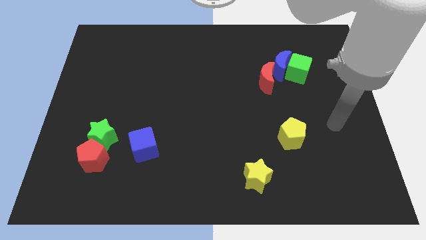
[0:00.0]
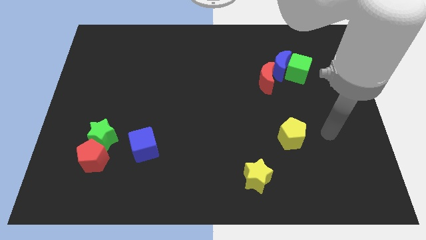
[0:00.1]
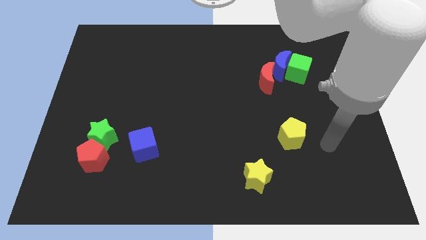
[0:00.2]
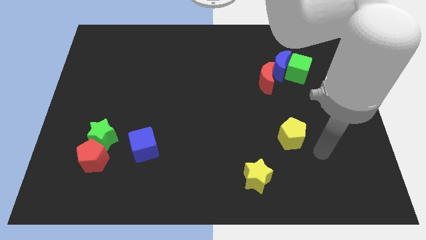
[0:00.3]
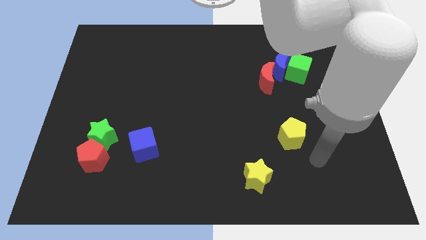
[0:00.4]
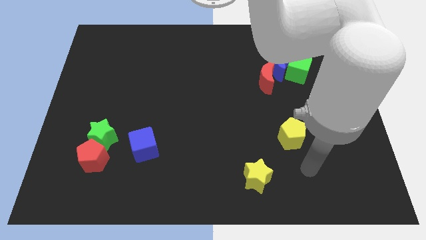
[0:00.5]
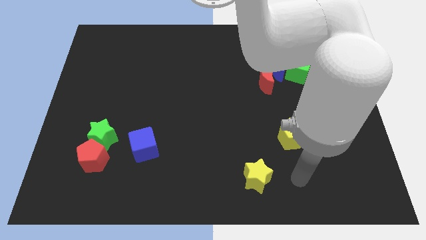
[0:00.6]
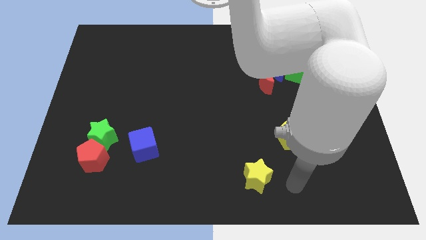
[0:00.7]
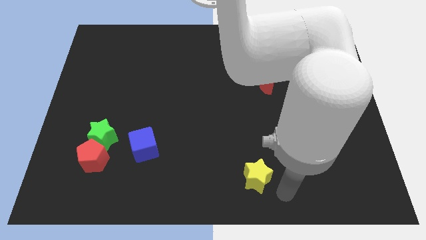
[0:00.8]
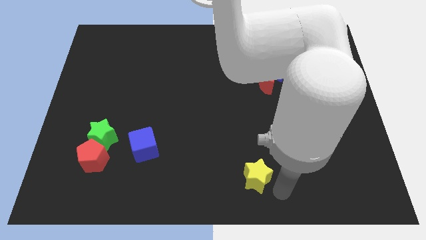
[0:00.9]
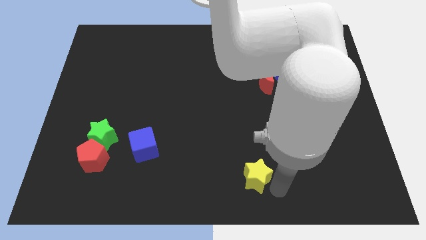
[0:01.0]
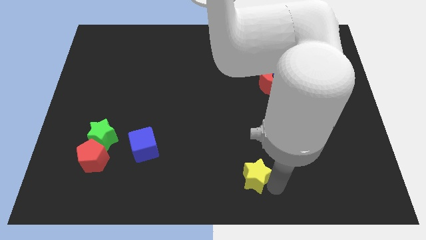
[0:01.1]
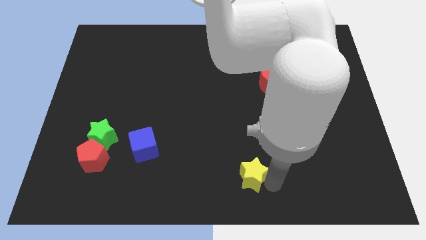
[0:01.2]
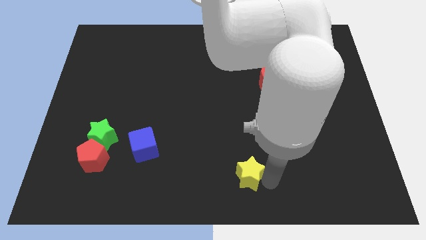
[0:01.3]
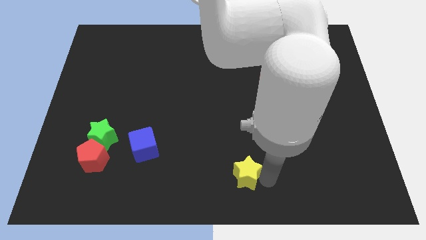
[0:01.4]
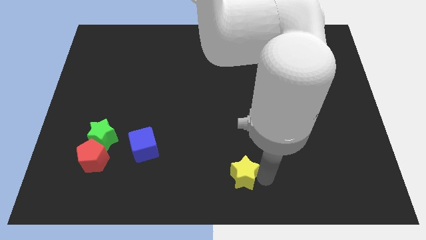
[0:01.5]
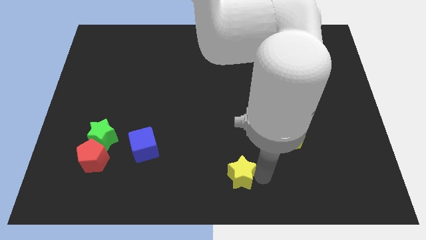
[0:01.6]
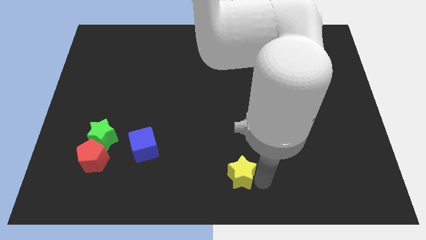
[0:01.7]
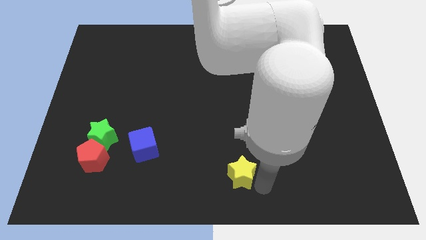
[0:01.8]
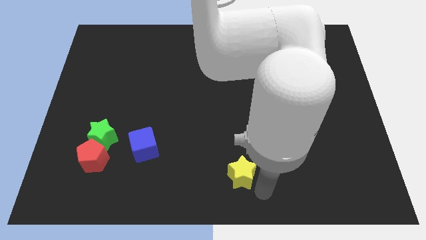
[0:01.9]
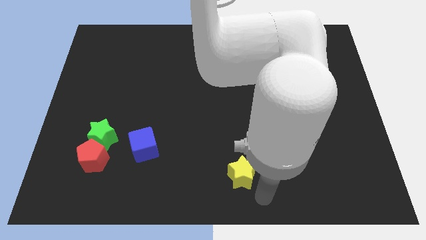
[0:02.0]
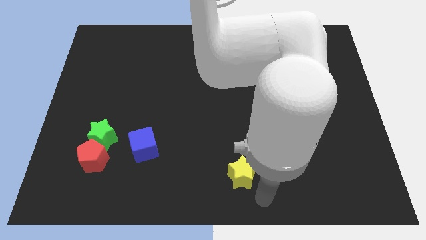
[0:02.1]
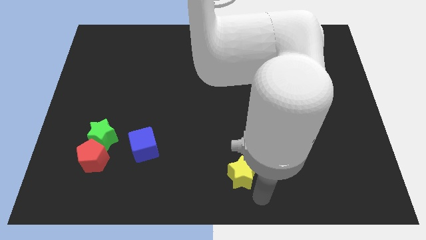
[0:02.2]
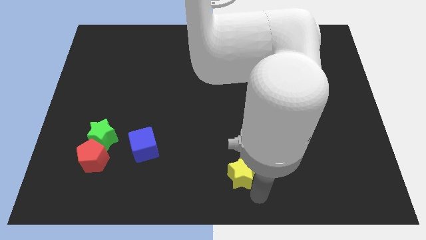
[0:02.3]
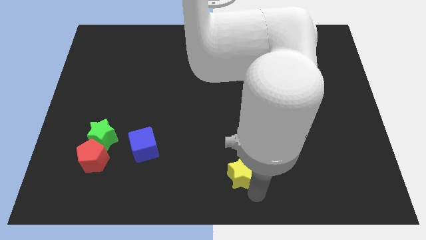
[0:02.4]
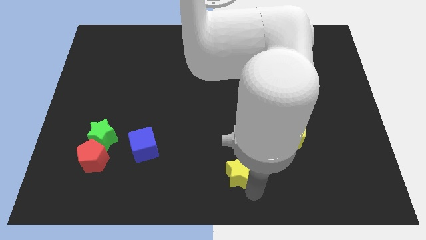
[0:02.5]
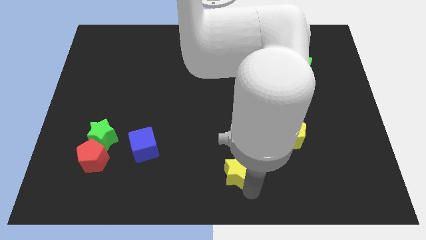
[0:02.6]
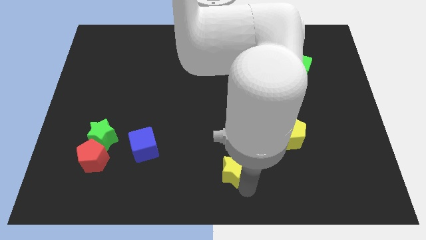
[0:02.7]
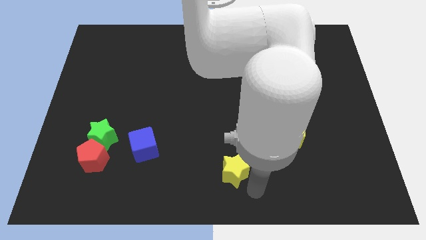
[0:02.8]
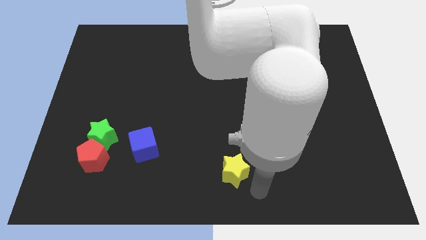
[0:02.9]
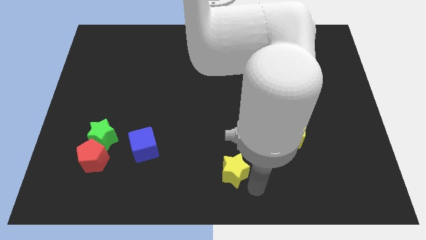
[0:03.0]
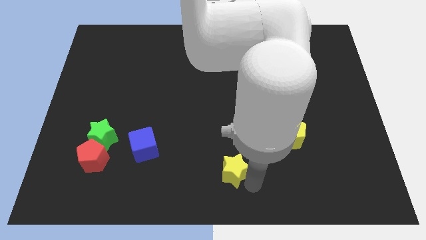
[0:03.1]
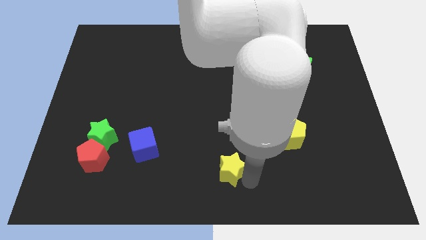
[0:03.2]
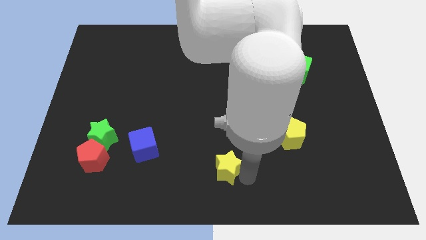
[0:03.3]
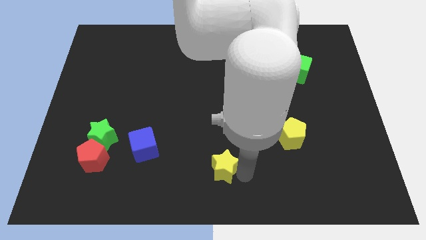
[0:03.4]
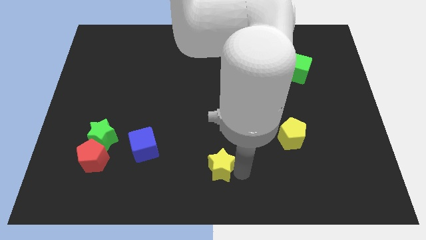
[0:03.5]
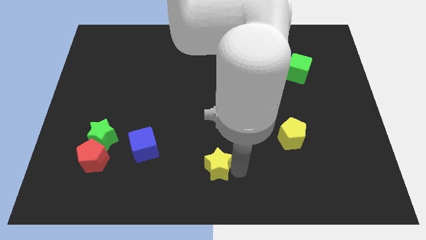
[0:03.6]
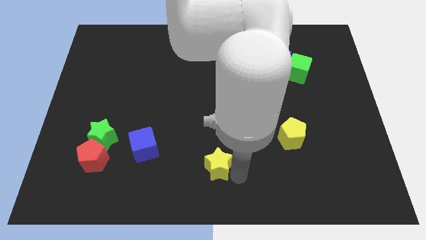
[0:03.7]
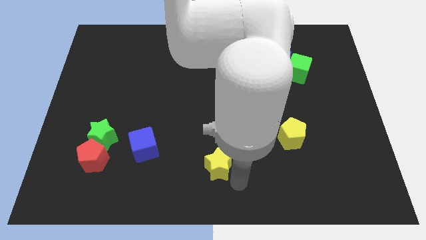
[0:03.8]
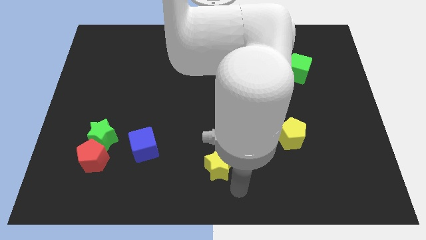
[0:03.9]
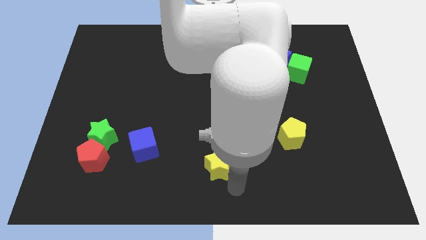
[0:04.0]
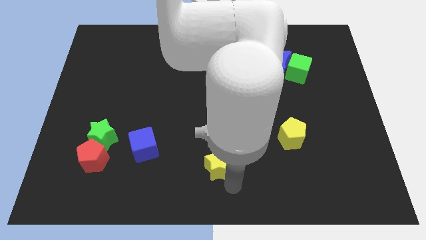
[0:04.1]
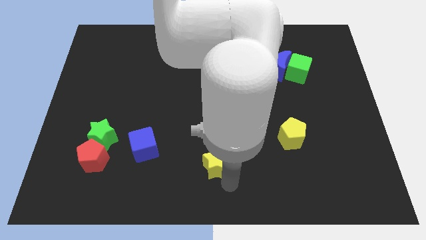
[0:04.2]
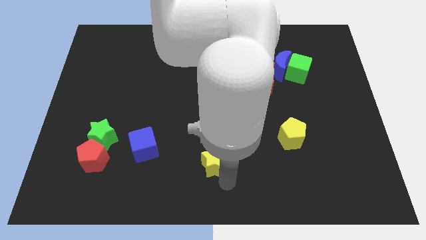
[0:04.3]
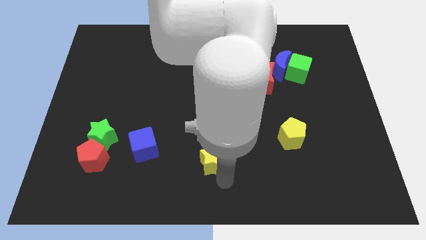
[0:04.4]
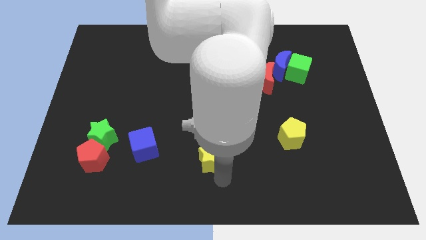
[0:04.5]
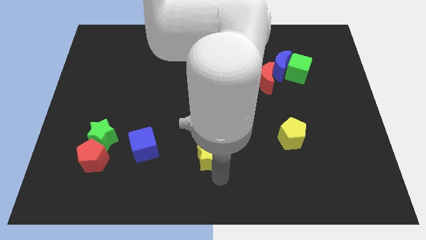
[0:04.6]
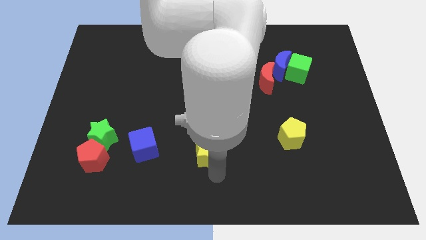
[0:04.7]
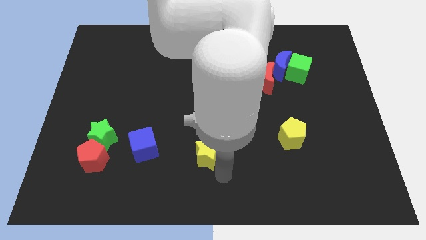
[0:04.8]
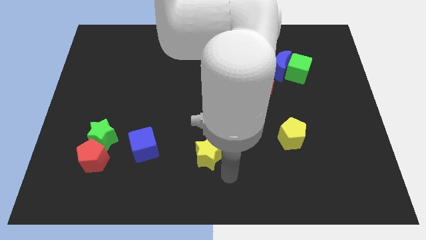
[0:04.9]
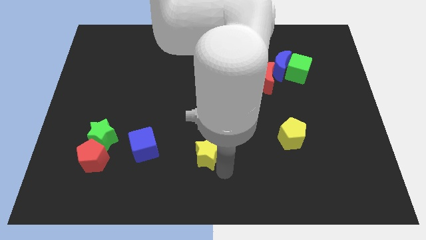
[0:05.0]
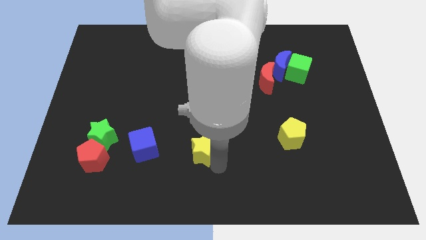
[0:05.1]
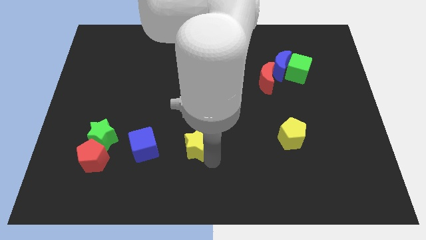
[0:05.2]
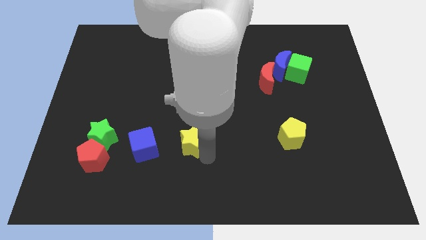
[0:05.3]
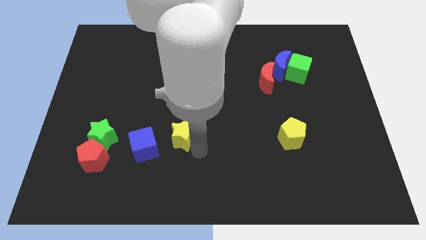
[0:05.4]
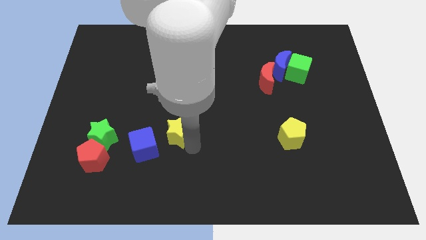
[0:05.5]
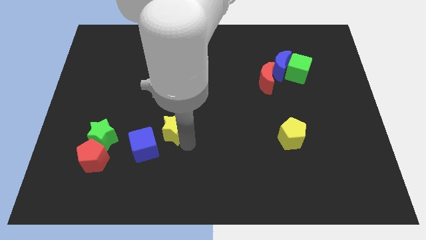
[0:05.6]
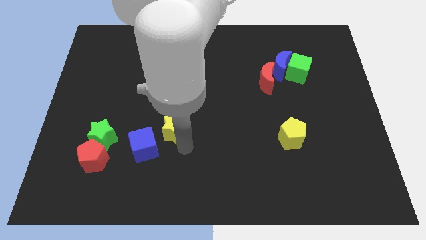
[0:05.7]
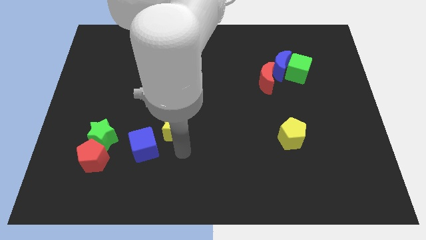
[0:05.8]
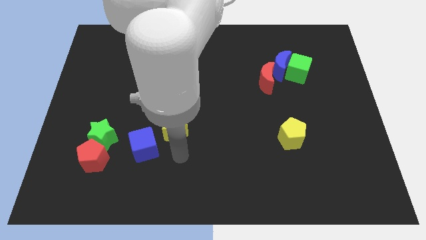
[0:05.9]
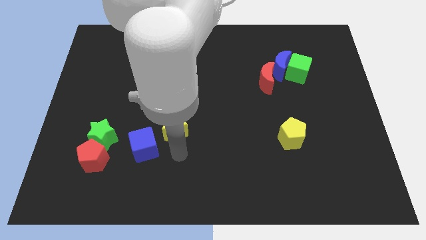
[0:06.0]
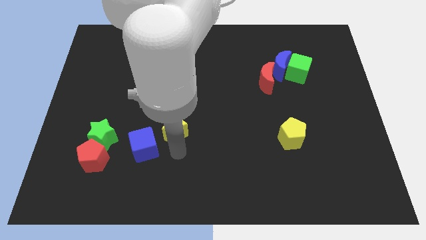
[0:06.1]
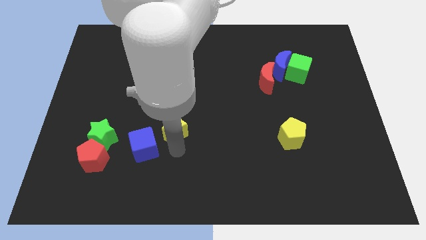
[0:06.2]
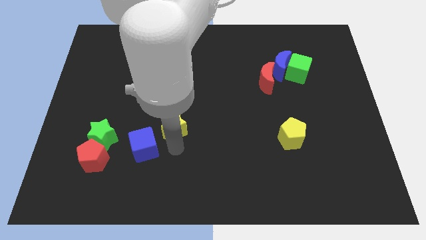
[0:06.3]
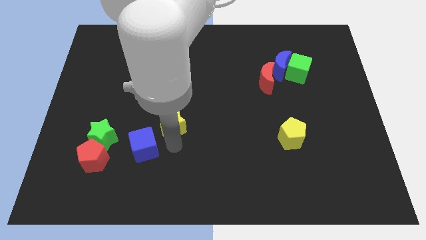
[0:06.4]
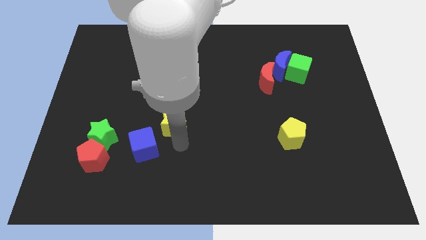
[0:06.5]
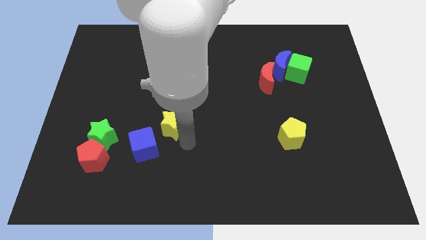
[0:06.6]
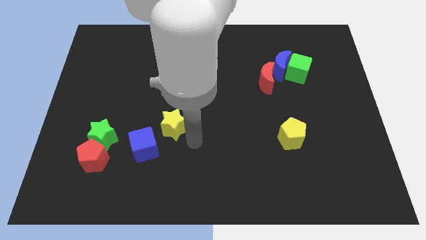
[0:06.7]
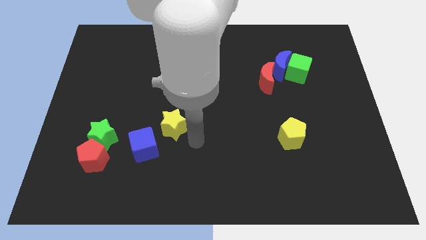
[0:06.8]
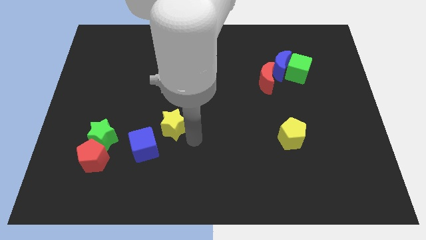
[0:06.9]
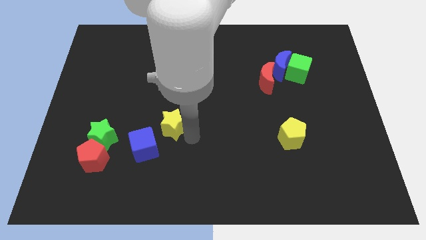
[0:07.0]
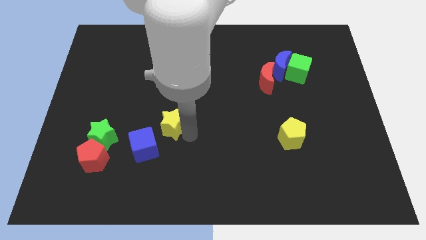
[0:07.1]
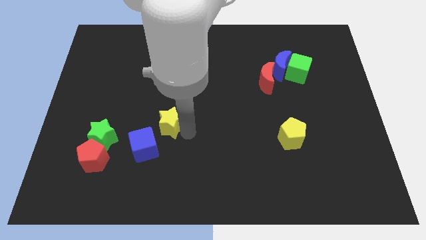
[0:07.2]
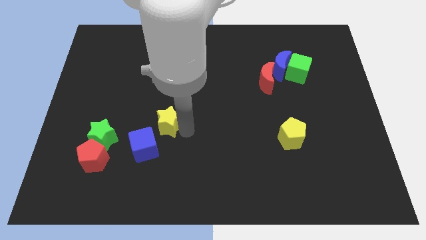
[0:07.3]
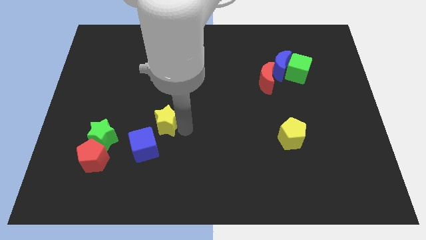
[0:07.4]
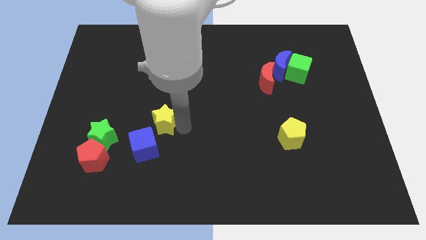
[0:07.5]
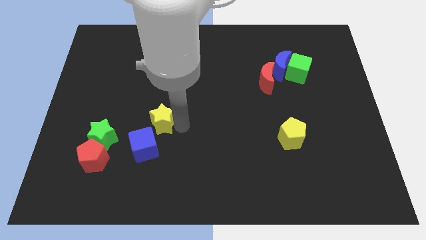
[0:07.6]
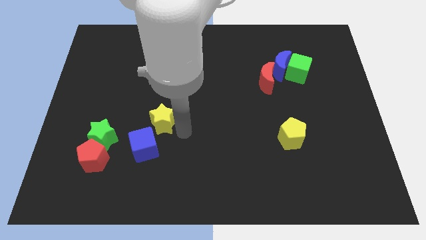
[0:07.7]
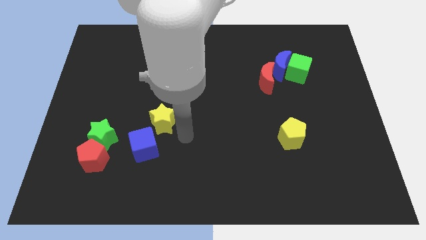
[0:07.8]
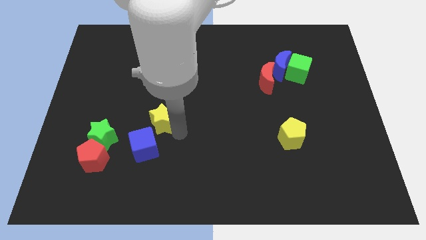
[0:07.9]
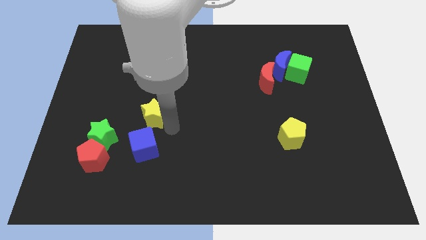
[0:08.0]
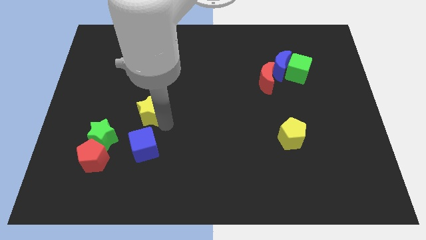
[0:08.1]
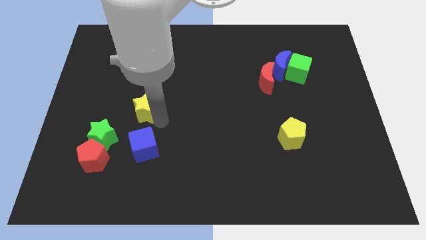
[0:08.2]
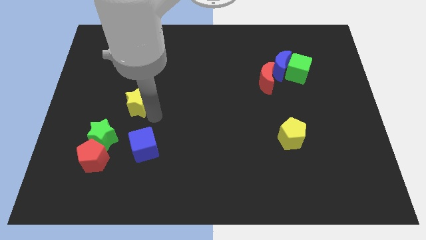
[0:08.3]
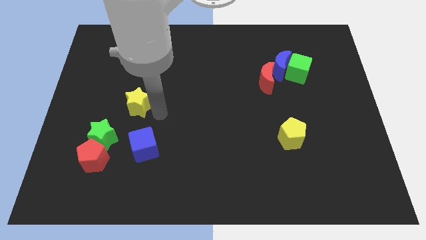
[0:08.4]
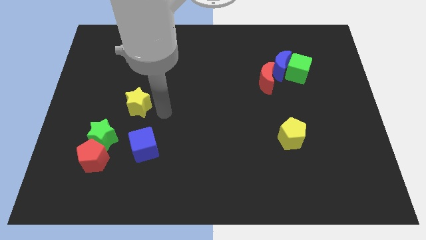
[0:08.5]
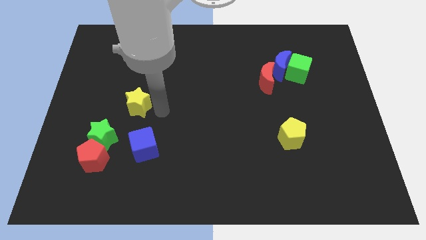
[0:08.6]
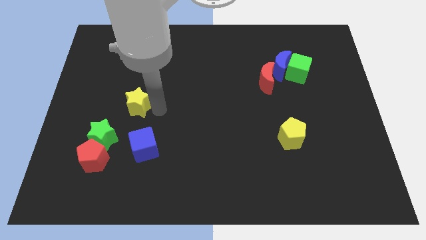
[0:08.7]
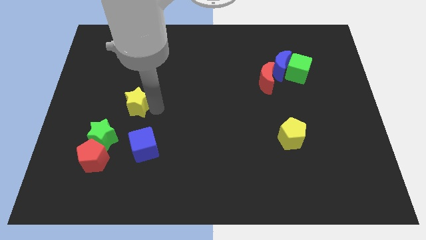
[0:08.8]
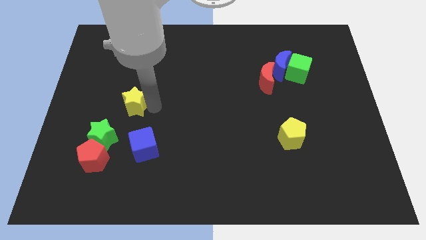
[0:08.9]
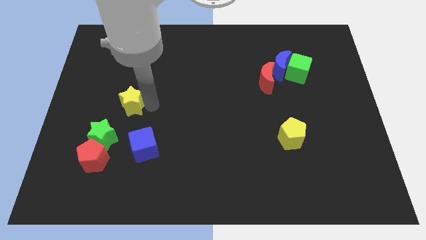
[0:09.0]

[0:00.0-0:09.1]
put the yellow star to the top side of the green star
